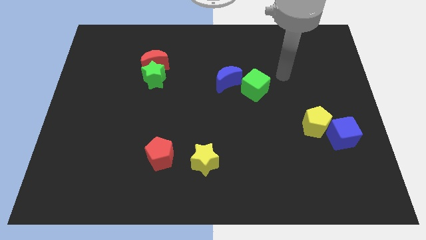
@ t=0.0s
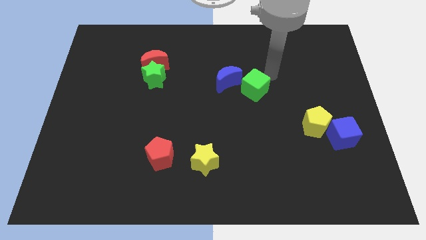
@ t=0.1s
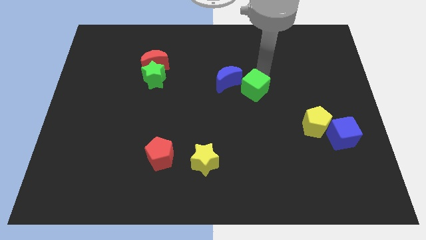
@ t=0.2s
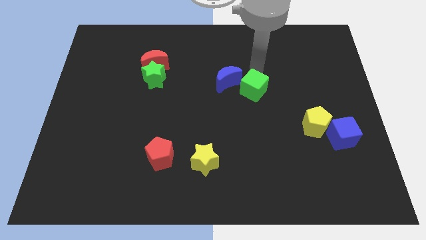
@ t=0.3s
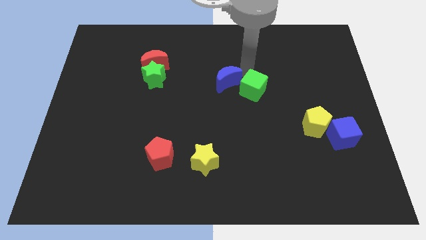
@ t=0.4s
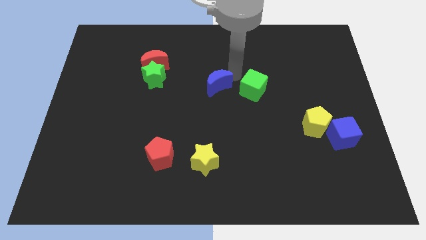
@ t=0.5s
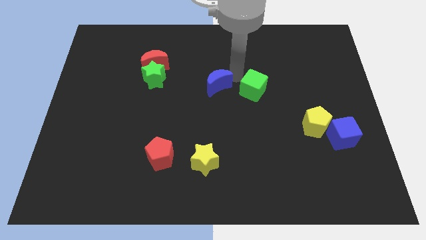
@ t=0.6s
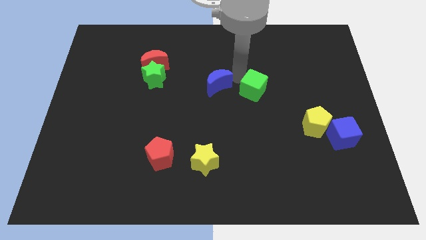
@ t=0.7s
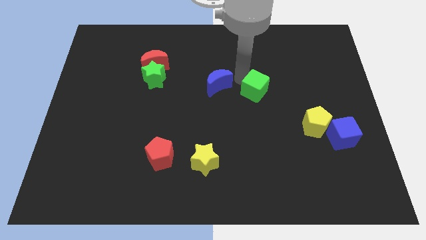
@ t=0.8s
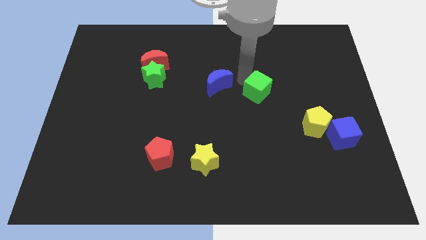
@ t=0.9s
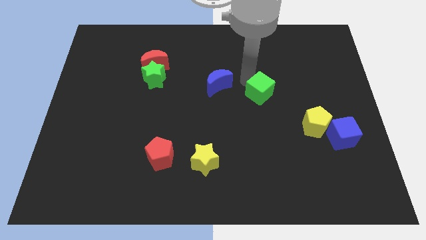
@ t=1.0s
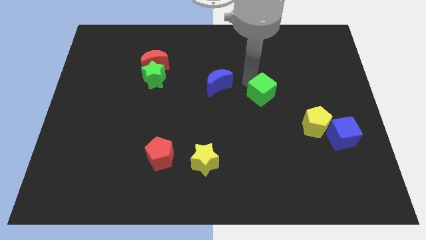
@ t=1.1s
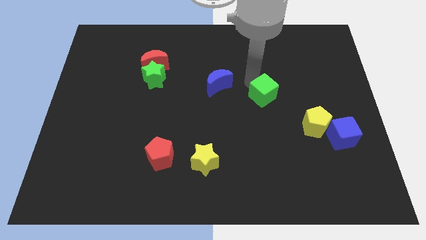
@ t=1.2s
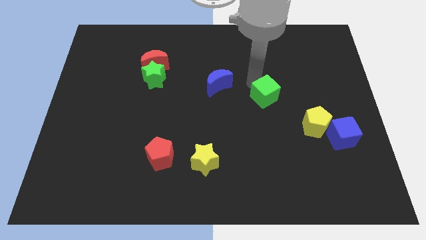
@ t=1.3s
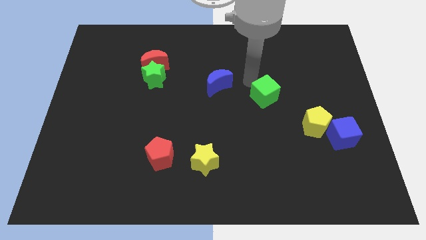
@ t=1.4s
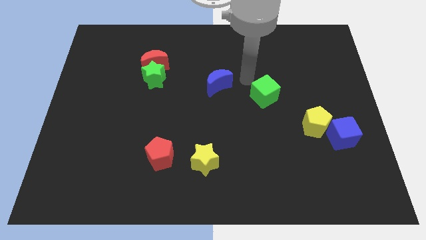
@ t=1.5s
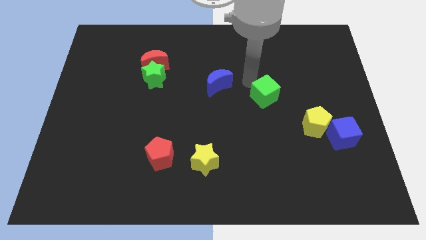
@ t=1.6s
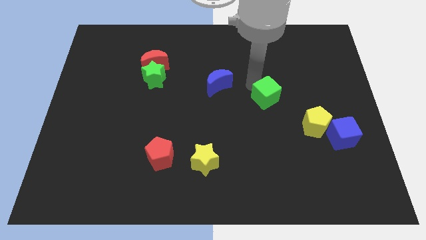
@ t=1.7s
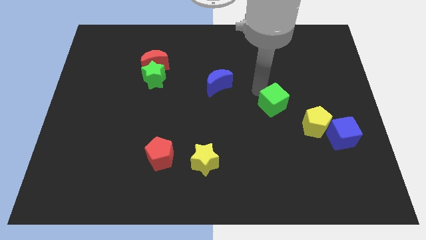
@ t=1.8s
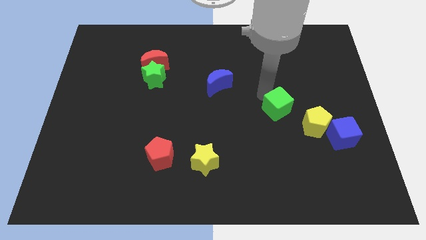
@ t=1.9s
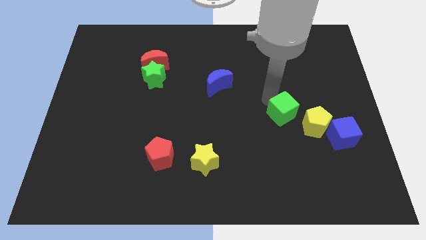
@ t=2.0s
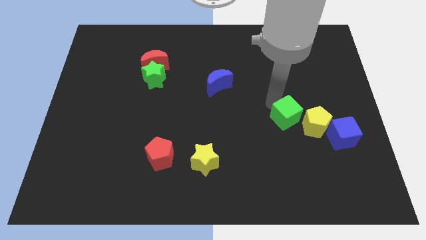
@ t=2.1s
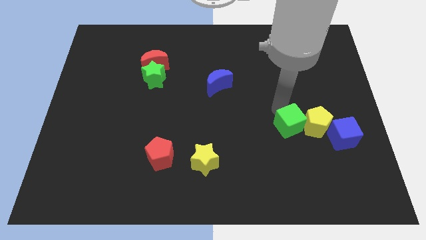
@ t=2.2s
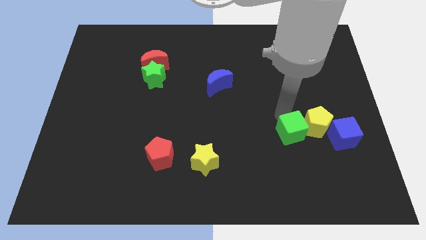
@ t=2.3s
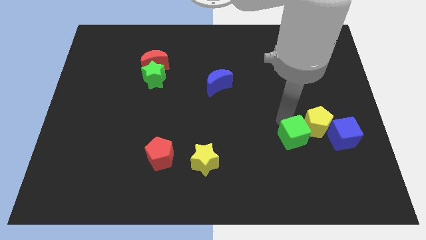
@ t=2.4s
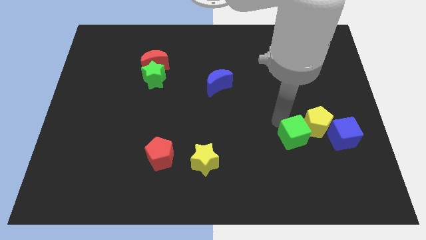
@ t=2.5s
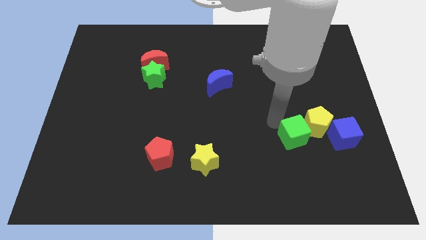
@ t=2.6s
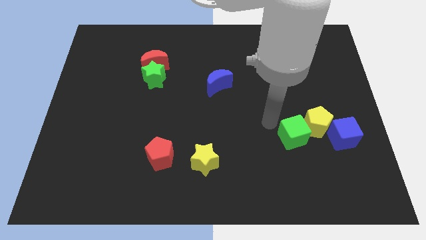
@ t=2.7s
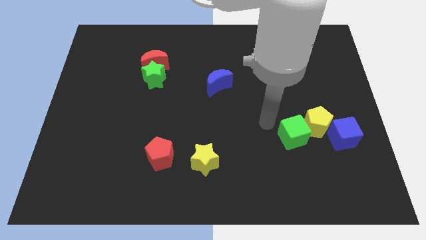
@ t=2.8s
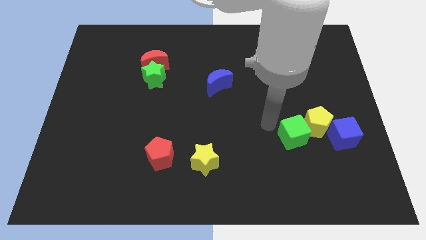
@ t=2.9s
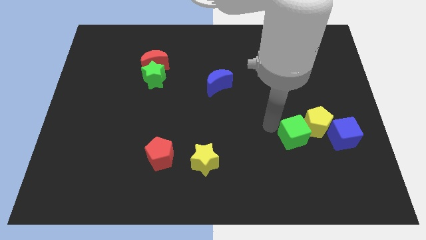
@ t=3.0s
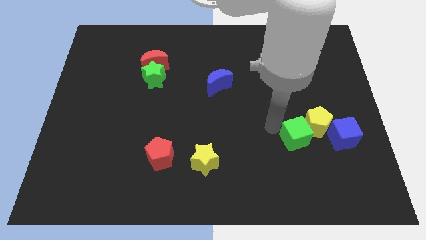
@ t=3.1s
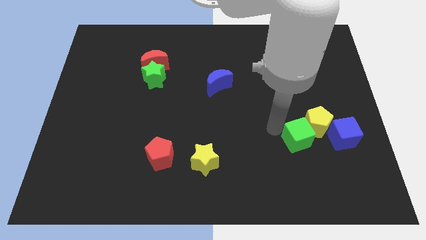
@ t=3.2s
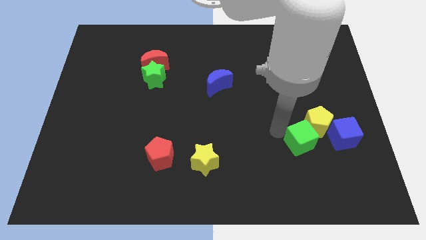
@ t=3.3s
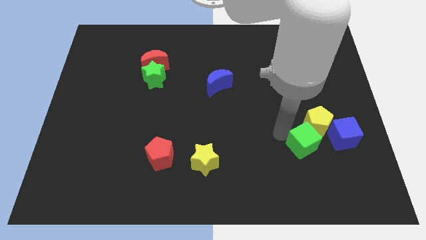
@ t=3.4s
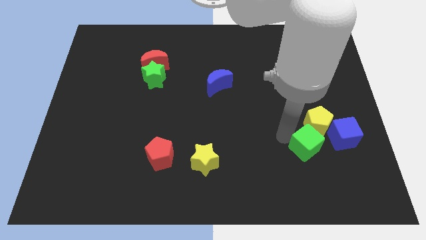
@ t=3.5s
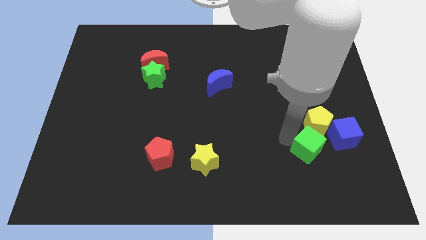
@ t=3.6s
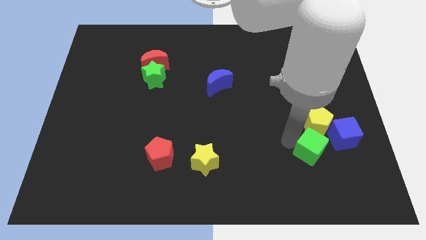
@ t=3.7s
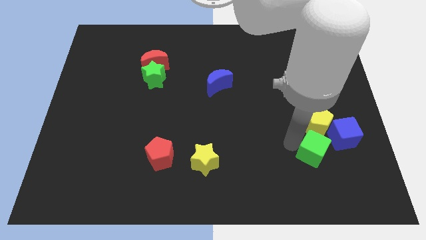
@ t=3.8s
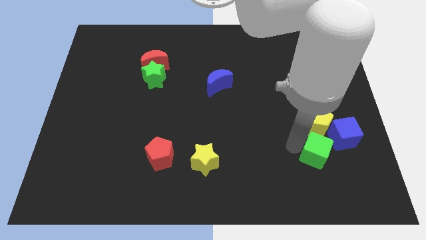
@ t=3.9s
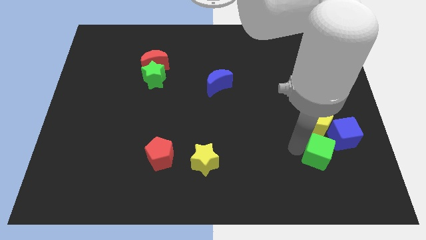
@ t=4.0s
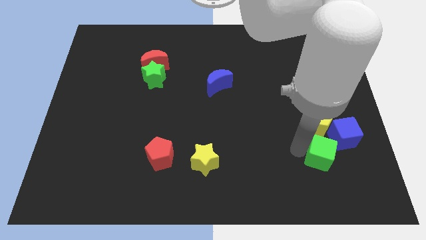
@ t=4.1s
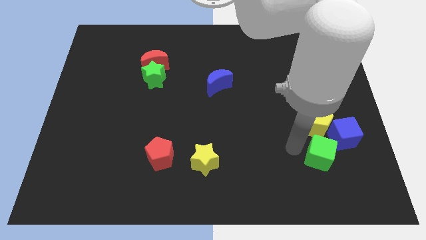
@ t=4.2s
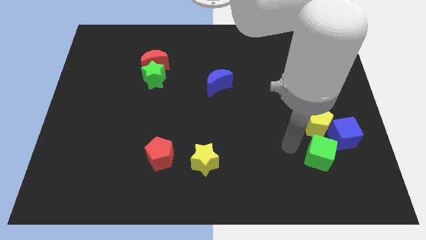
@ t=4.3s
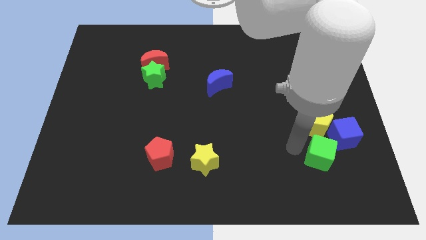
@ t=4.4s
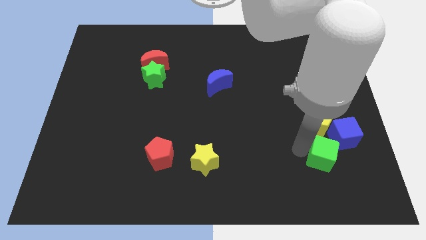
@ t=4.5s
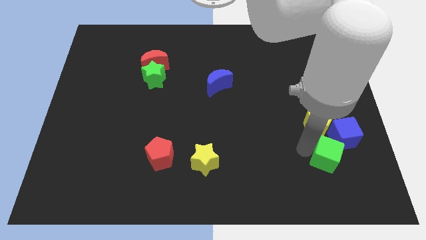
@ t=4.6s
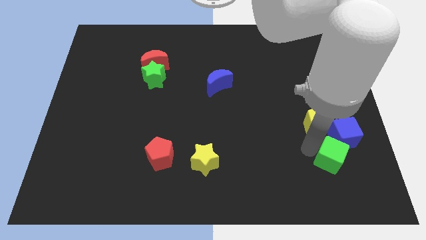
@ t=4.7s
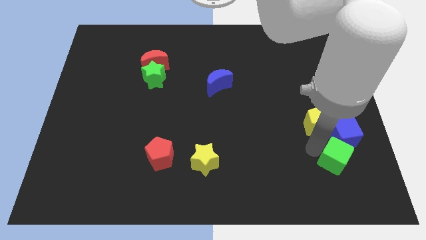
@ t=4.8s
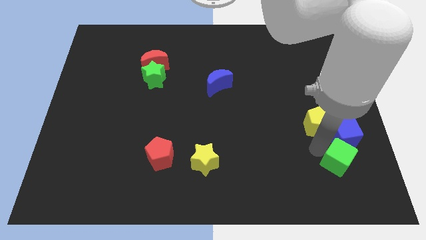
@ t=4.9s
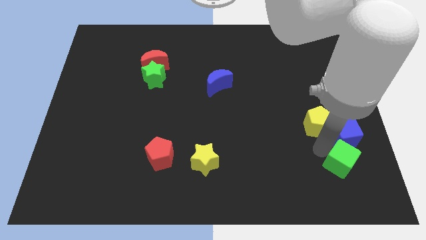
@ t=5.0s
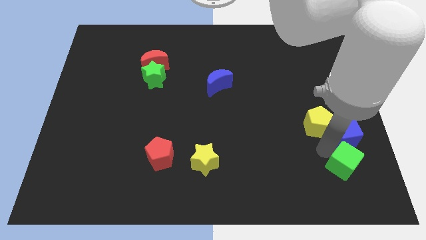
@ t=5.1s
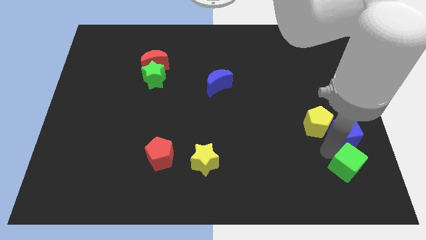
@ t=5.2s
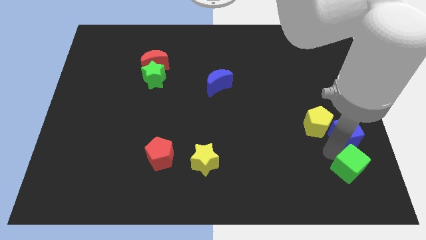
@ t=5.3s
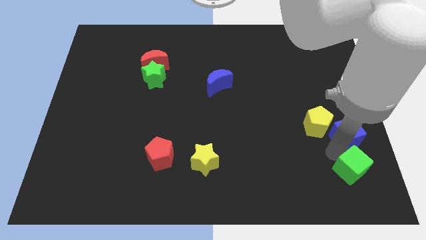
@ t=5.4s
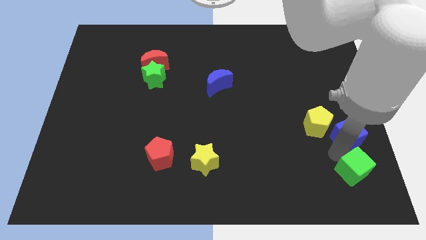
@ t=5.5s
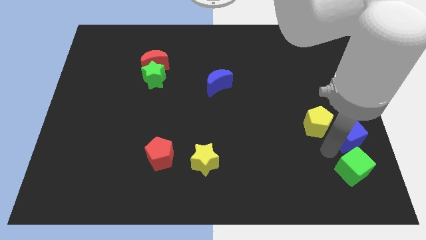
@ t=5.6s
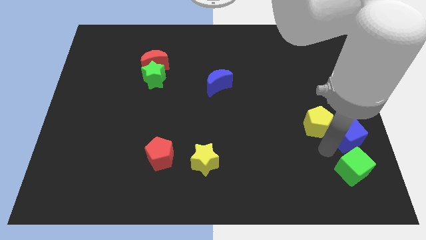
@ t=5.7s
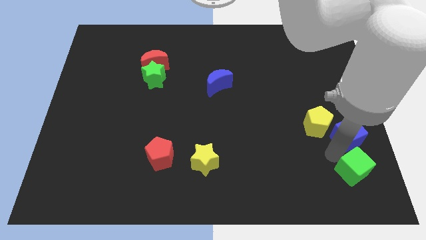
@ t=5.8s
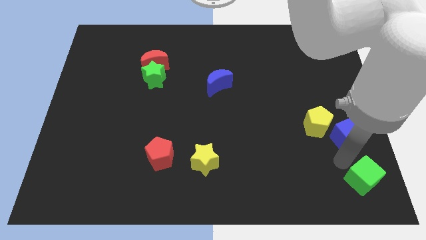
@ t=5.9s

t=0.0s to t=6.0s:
push the green cube to the bottom right corner

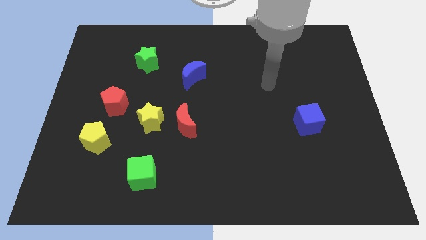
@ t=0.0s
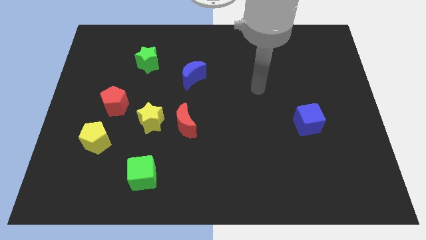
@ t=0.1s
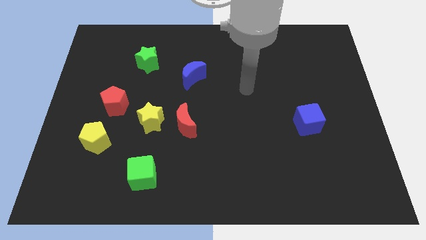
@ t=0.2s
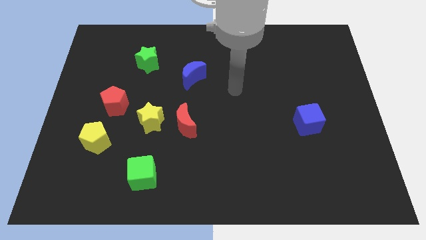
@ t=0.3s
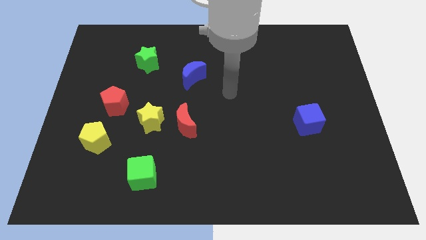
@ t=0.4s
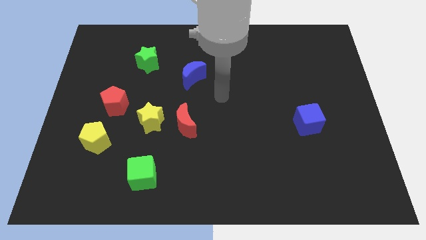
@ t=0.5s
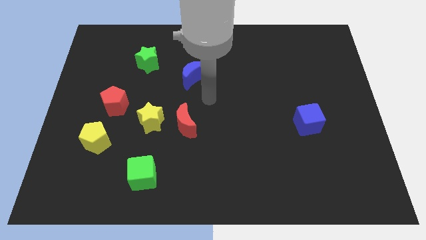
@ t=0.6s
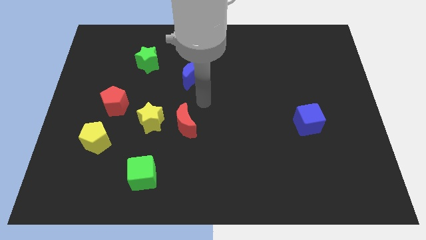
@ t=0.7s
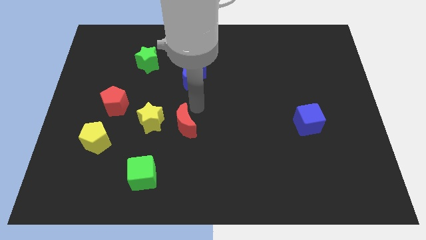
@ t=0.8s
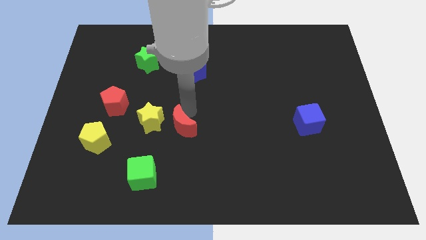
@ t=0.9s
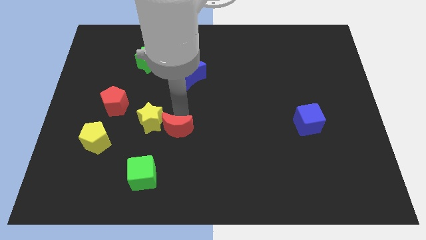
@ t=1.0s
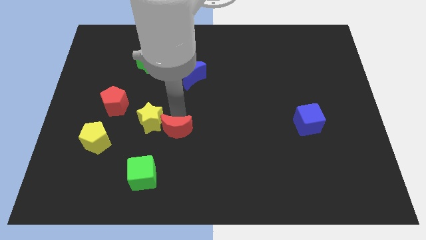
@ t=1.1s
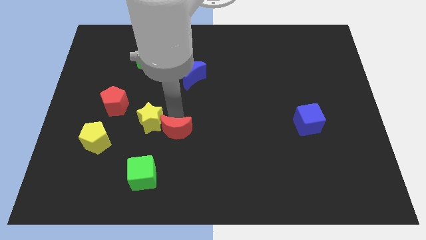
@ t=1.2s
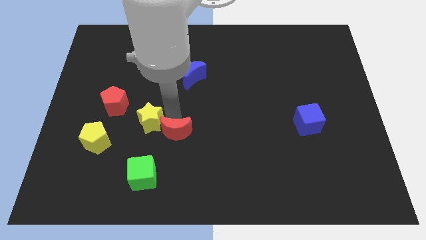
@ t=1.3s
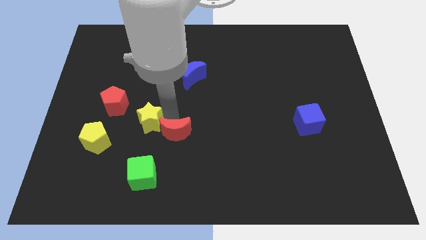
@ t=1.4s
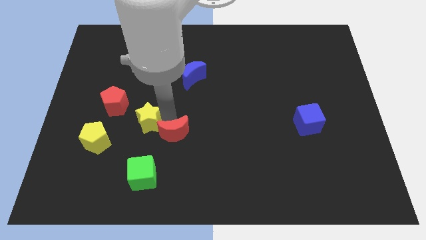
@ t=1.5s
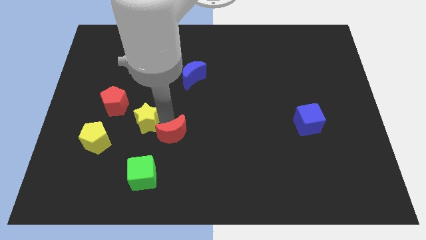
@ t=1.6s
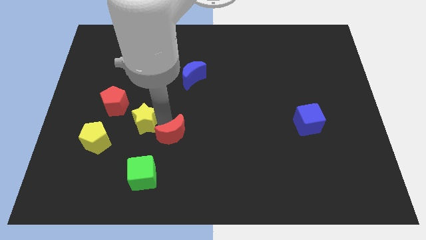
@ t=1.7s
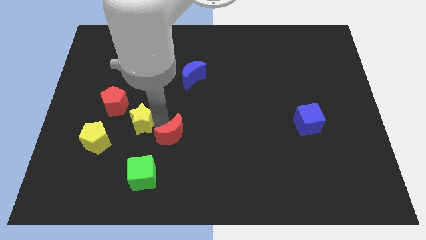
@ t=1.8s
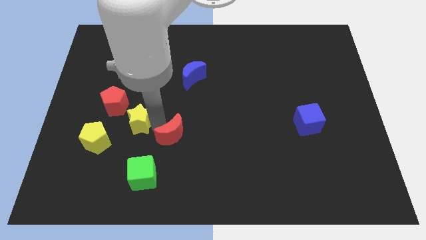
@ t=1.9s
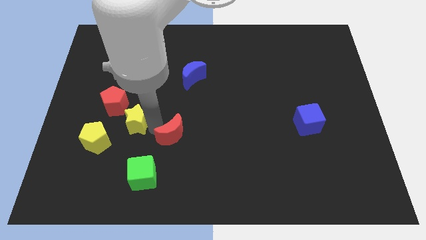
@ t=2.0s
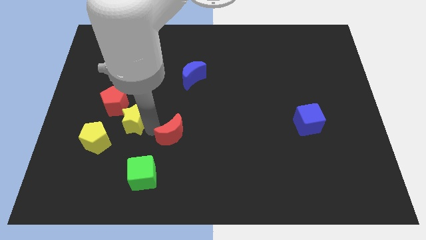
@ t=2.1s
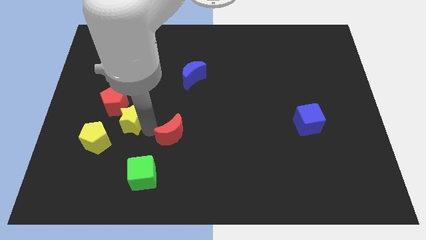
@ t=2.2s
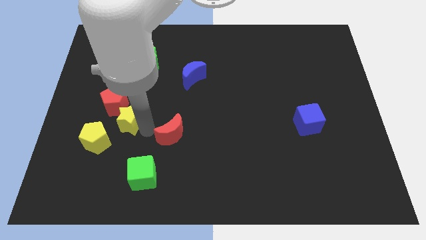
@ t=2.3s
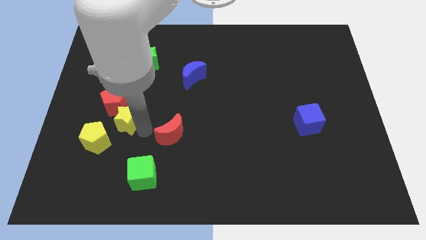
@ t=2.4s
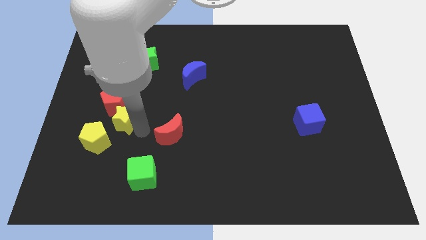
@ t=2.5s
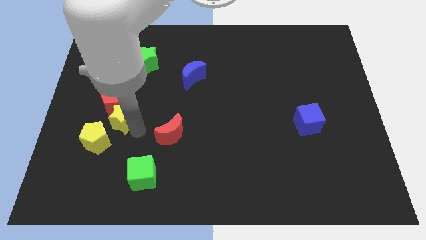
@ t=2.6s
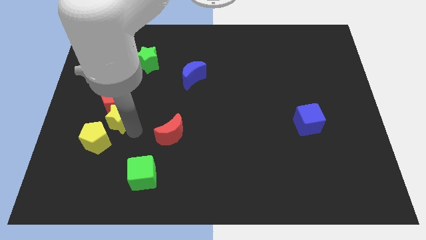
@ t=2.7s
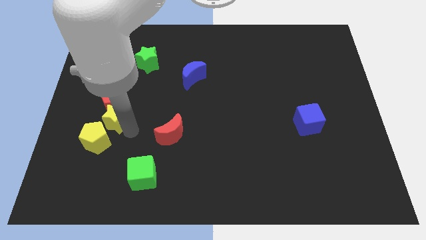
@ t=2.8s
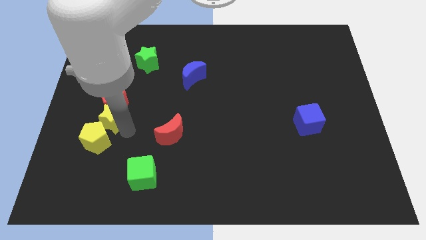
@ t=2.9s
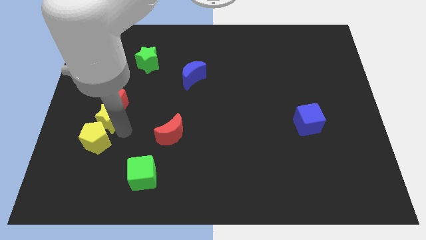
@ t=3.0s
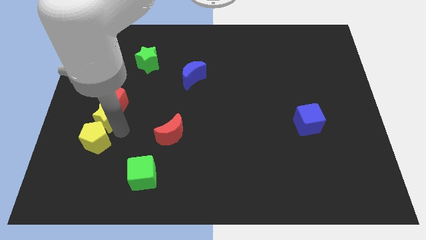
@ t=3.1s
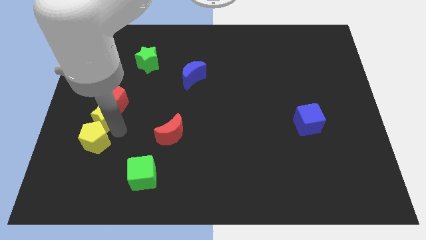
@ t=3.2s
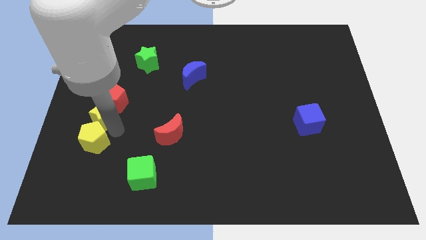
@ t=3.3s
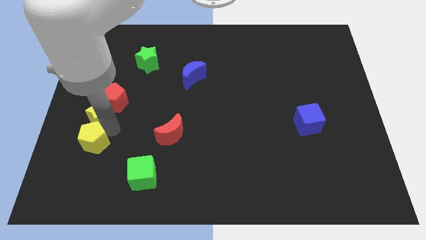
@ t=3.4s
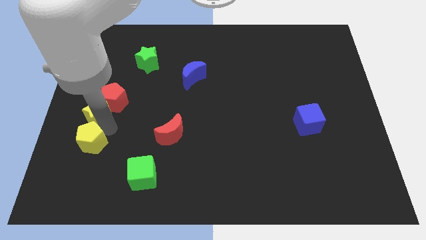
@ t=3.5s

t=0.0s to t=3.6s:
push the yellow star to the center left
